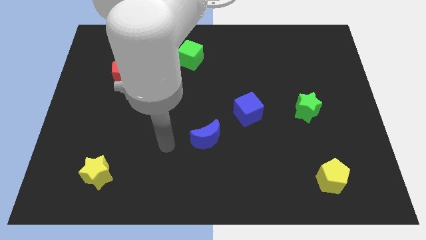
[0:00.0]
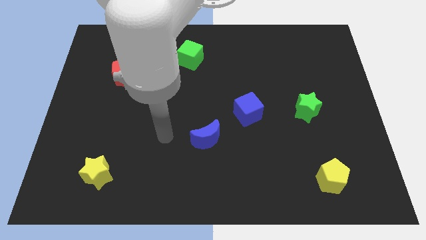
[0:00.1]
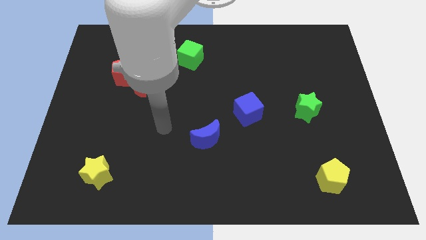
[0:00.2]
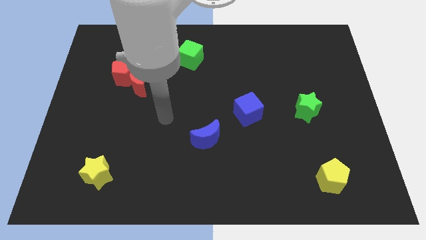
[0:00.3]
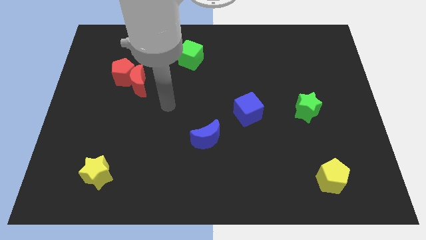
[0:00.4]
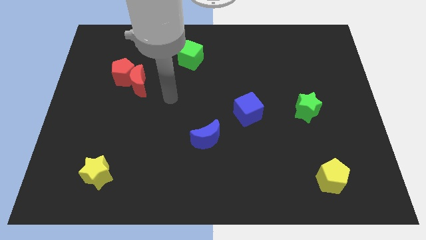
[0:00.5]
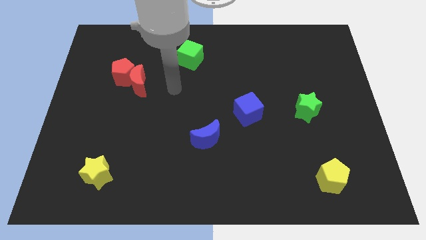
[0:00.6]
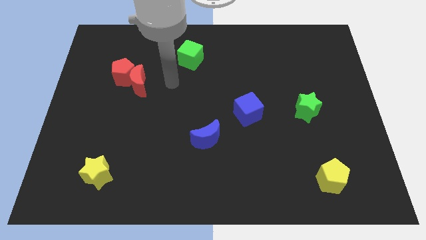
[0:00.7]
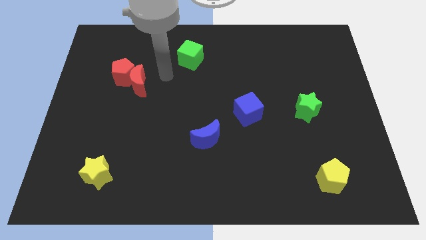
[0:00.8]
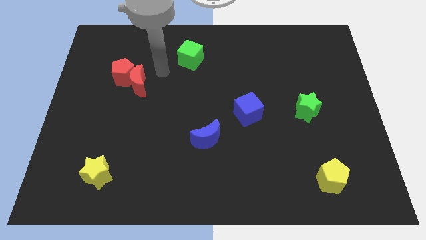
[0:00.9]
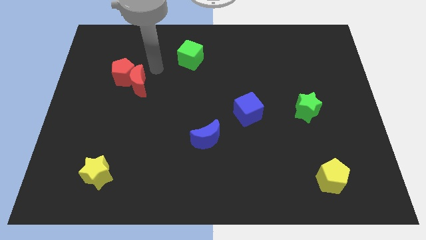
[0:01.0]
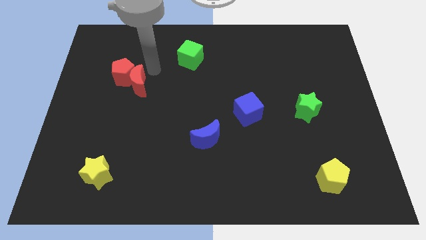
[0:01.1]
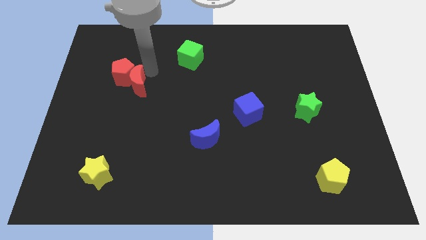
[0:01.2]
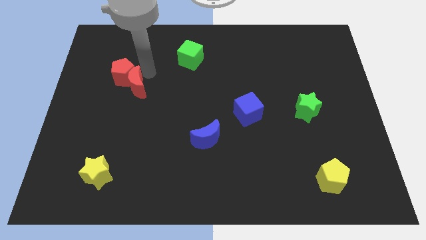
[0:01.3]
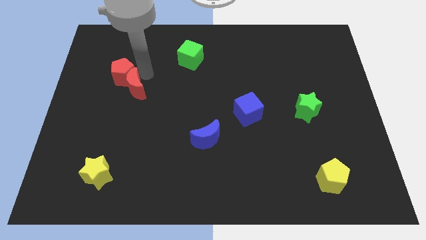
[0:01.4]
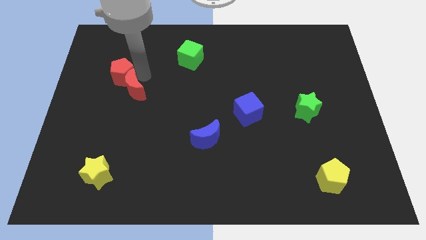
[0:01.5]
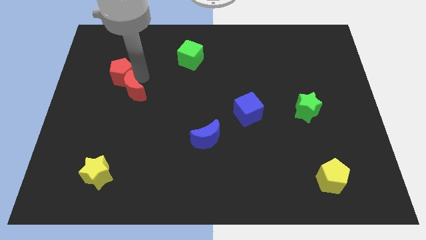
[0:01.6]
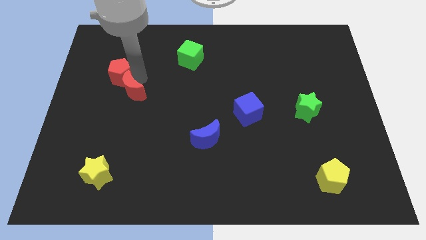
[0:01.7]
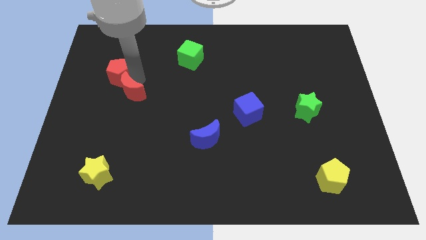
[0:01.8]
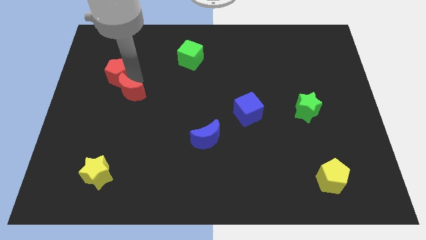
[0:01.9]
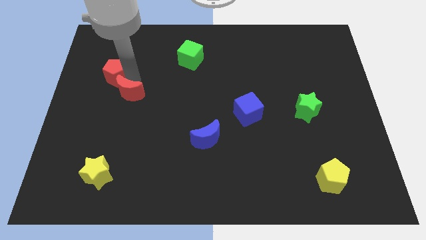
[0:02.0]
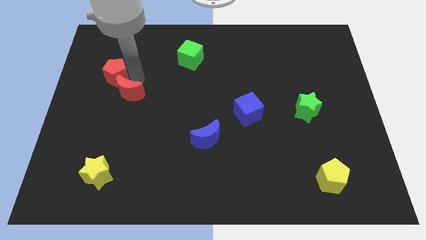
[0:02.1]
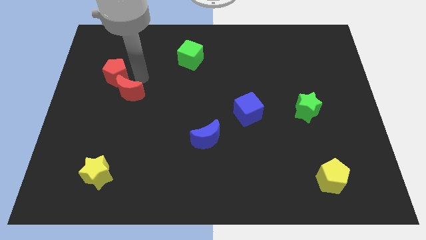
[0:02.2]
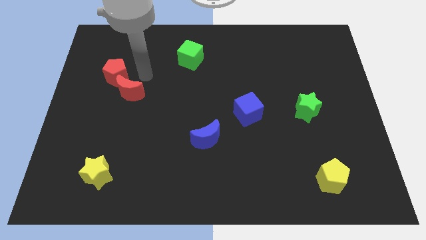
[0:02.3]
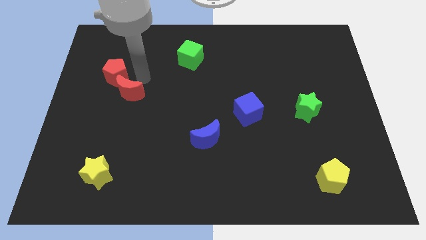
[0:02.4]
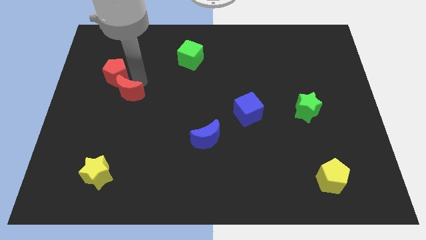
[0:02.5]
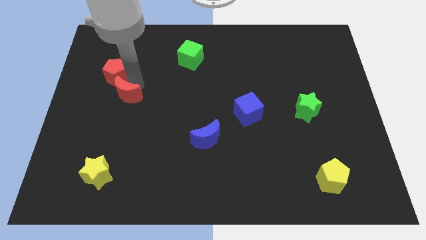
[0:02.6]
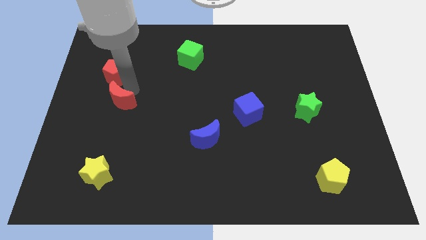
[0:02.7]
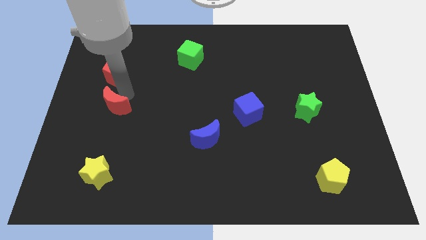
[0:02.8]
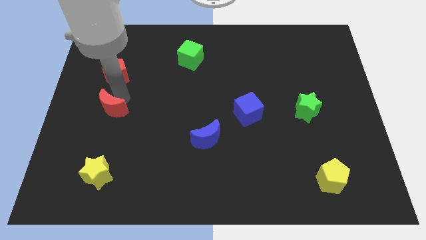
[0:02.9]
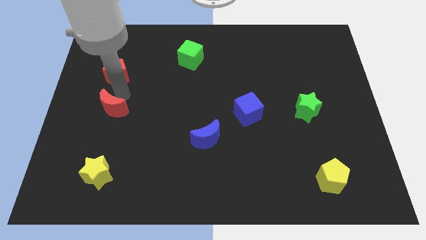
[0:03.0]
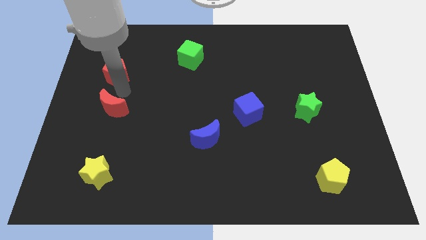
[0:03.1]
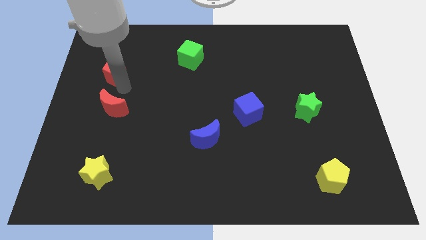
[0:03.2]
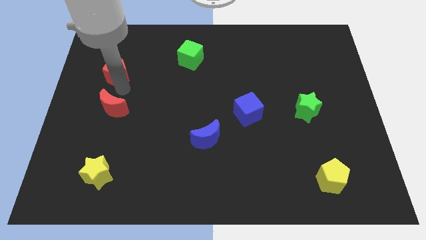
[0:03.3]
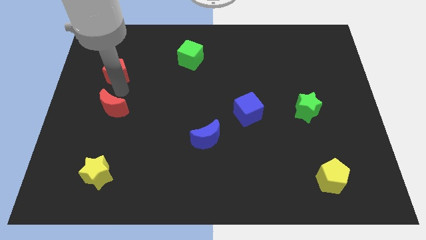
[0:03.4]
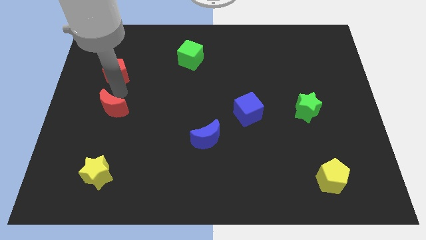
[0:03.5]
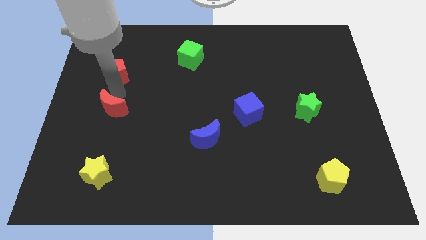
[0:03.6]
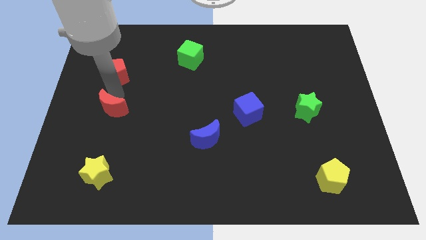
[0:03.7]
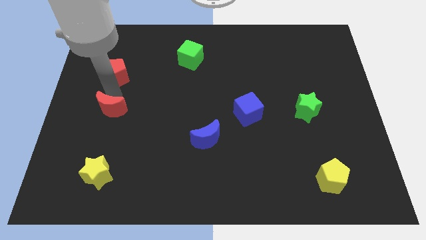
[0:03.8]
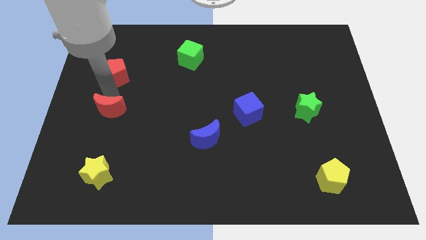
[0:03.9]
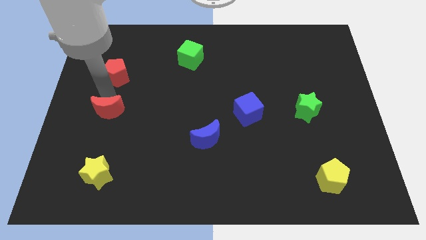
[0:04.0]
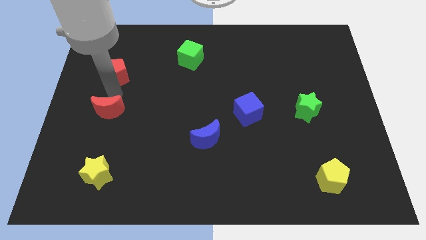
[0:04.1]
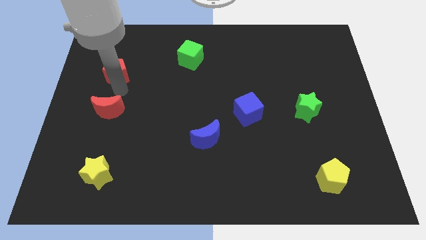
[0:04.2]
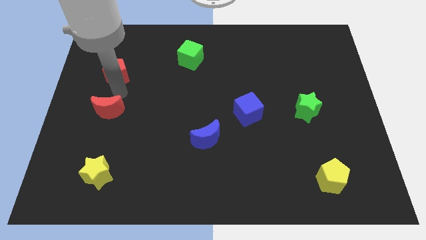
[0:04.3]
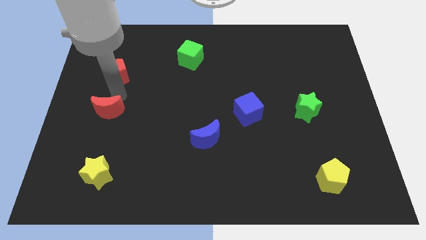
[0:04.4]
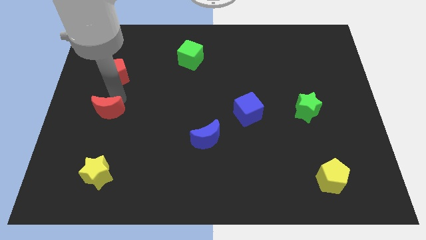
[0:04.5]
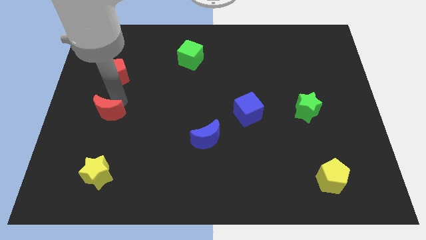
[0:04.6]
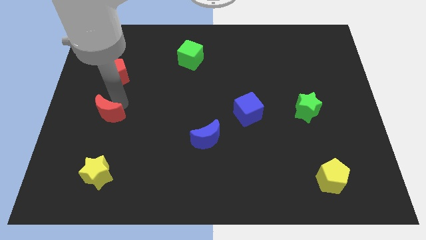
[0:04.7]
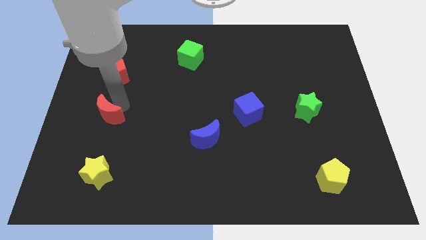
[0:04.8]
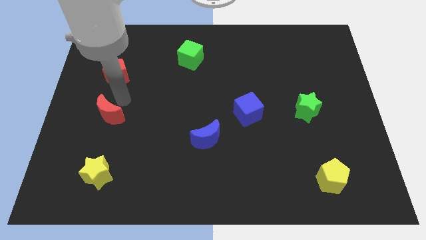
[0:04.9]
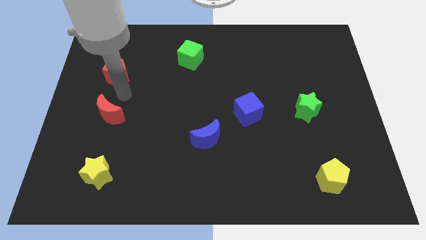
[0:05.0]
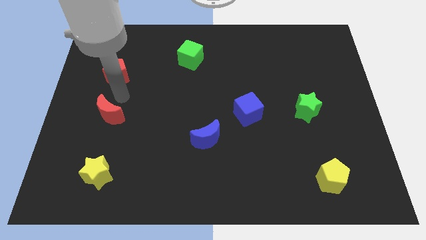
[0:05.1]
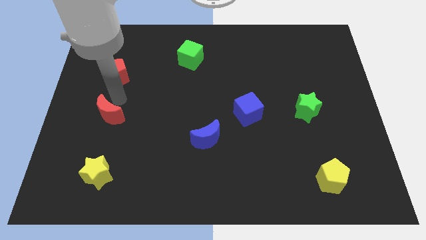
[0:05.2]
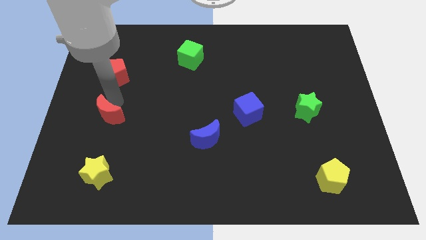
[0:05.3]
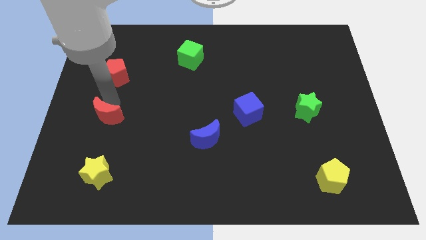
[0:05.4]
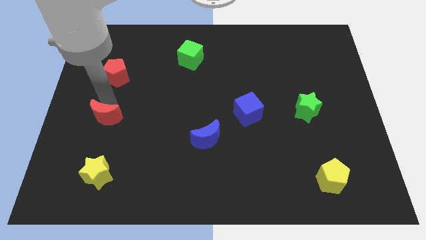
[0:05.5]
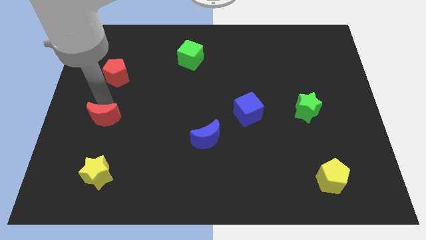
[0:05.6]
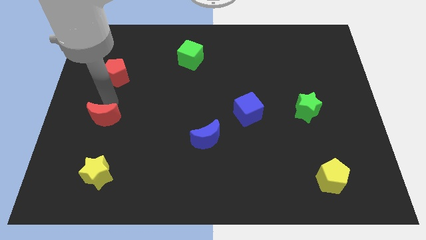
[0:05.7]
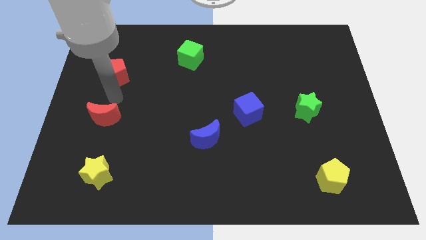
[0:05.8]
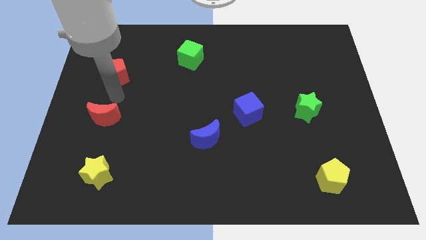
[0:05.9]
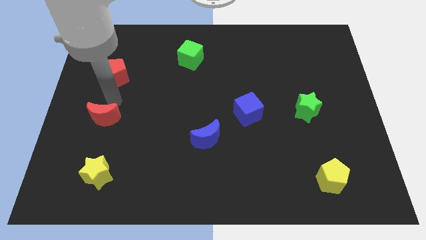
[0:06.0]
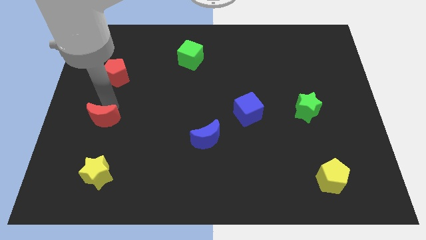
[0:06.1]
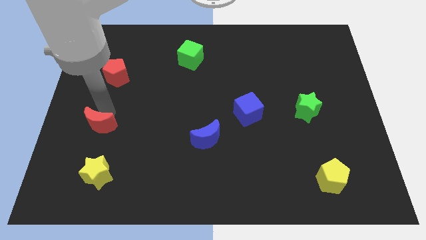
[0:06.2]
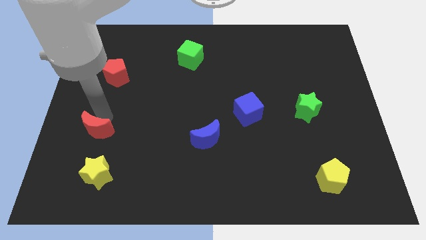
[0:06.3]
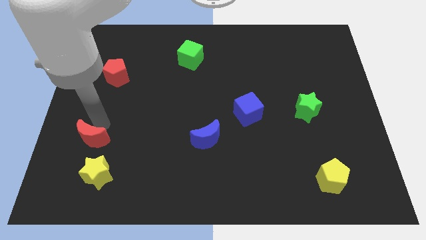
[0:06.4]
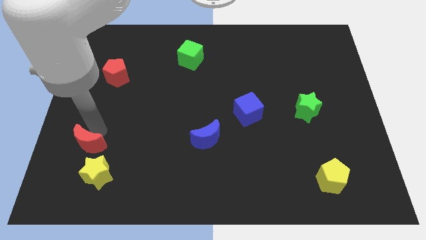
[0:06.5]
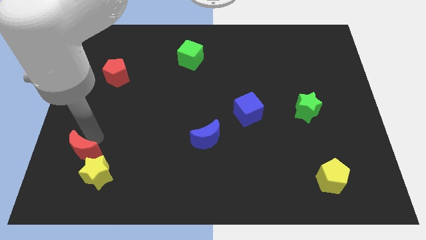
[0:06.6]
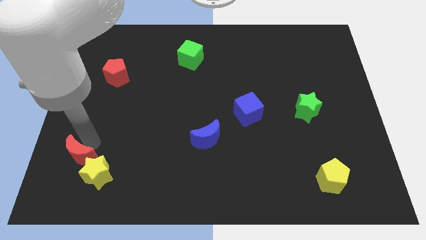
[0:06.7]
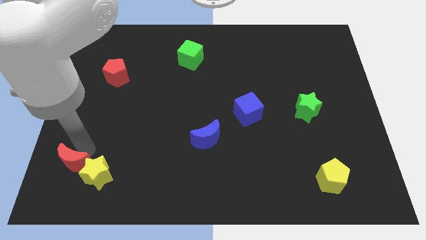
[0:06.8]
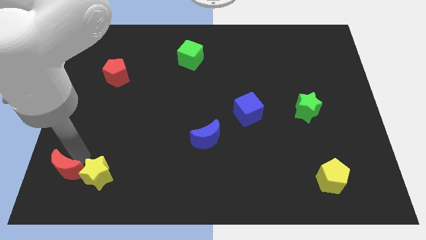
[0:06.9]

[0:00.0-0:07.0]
push the red moon to the bottom left corner
